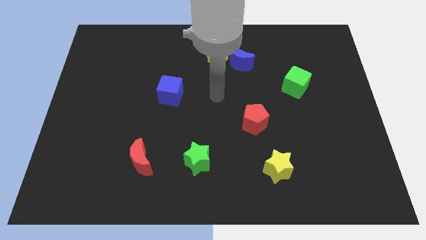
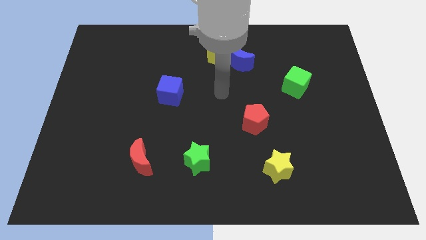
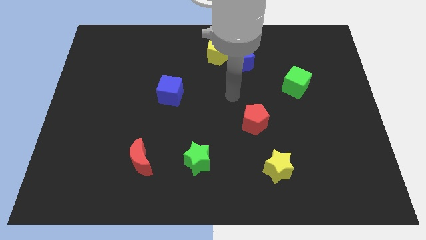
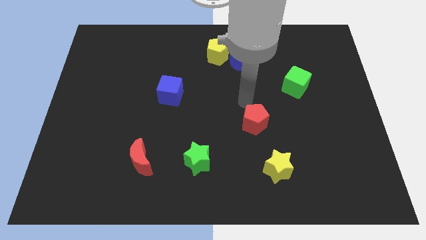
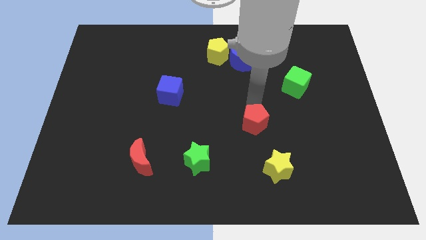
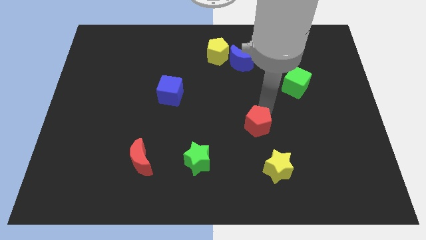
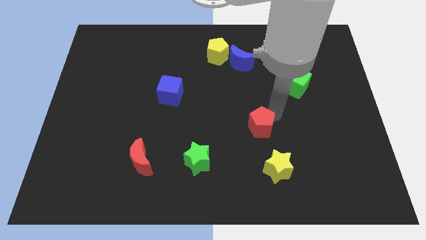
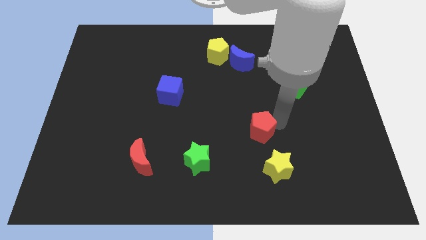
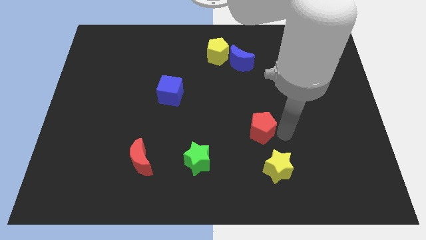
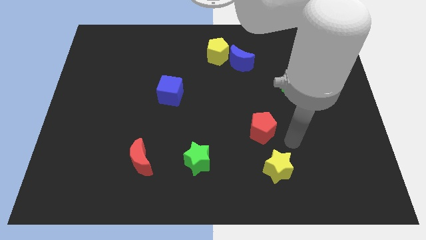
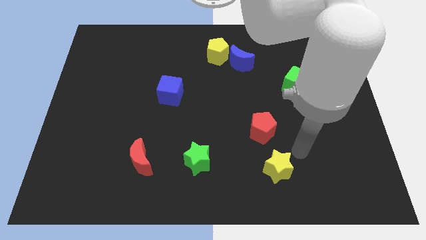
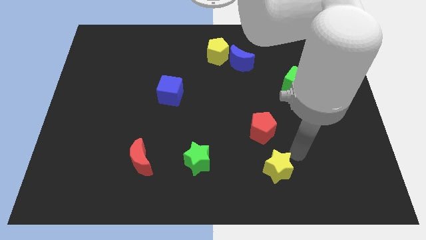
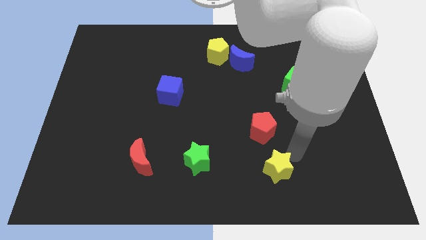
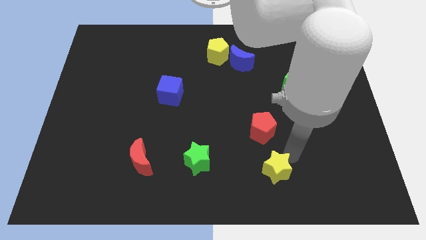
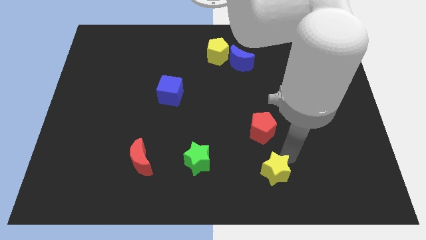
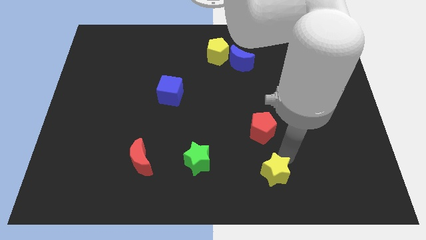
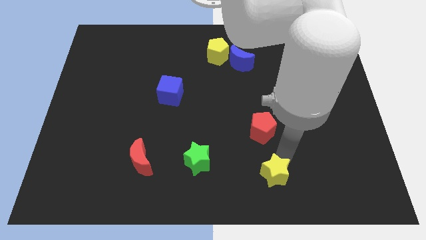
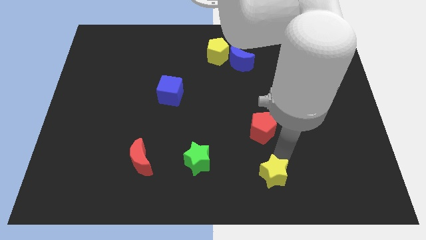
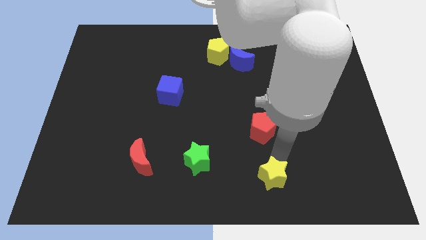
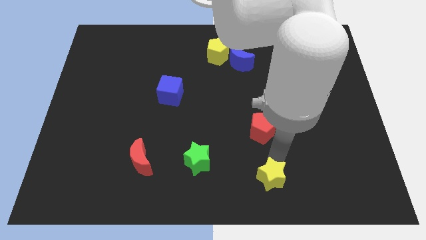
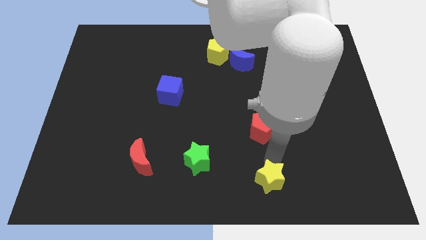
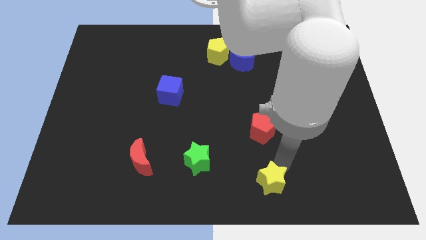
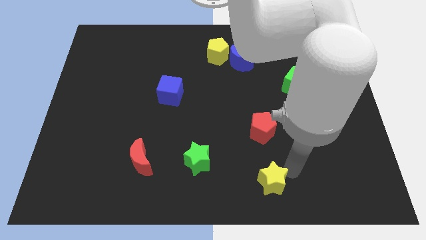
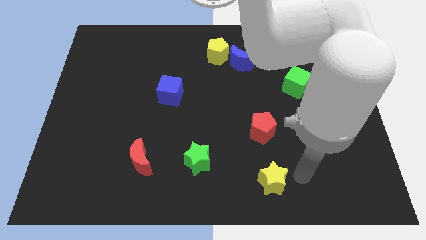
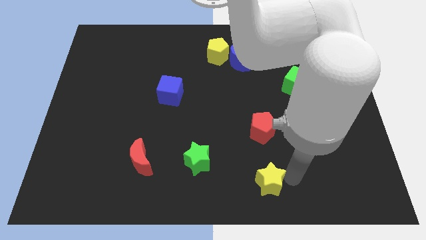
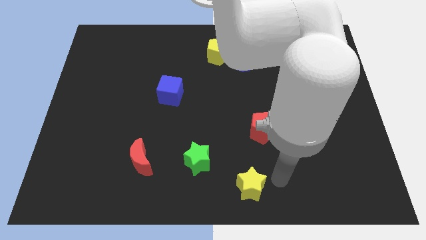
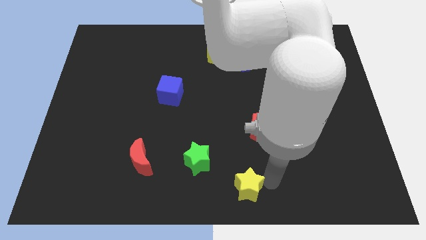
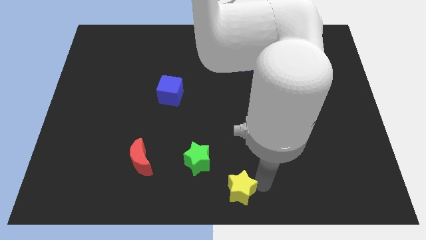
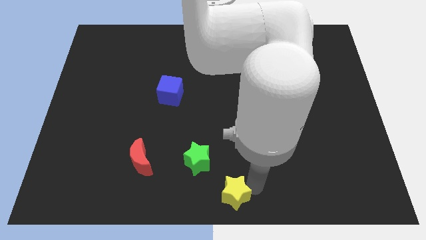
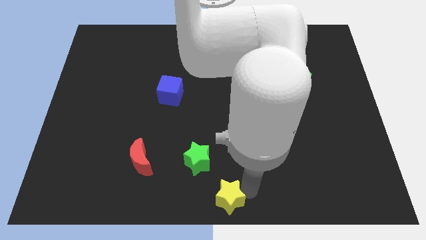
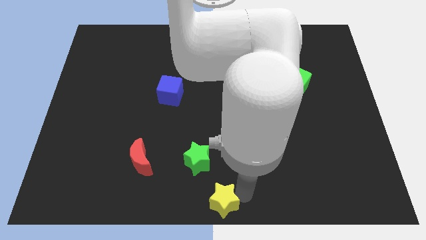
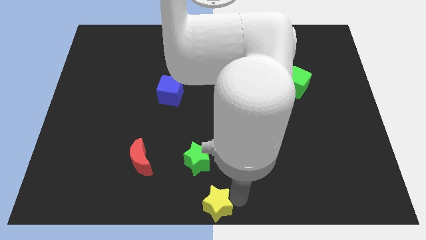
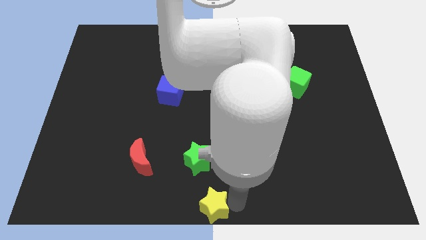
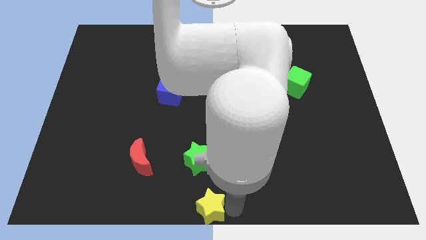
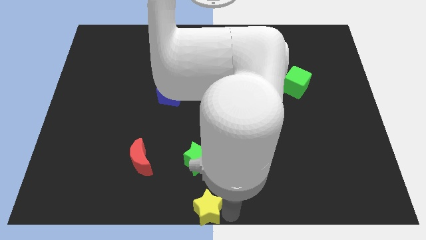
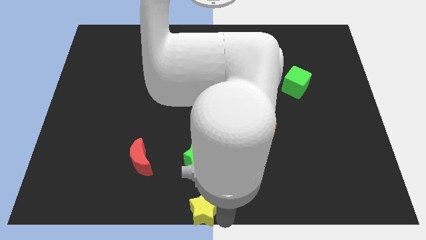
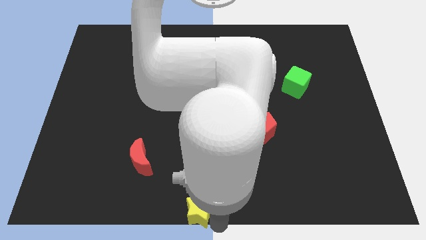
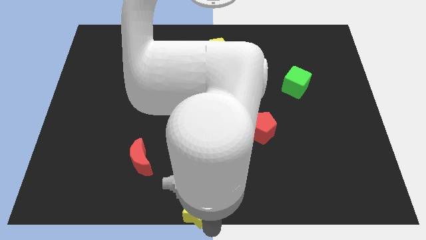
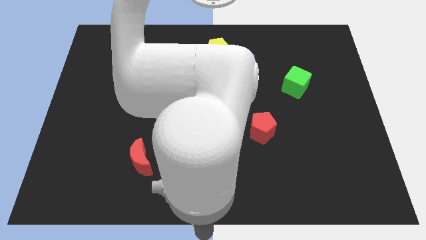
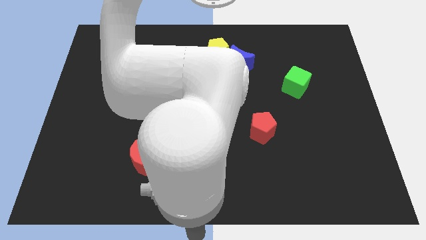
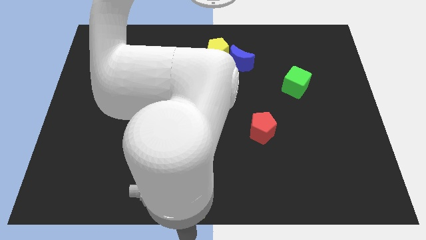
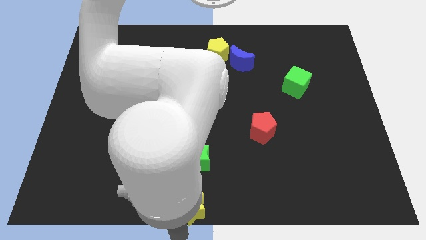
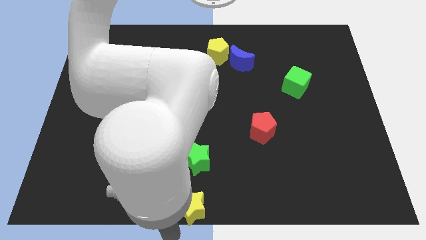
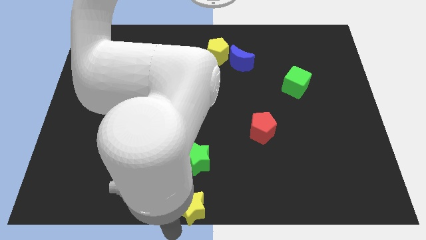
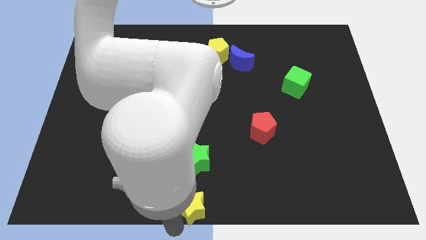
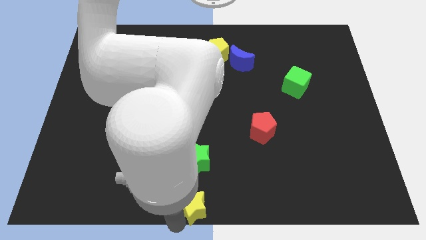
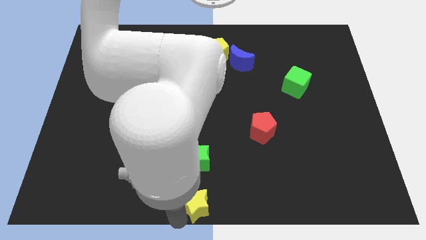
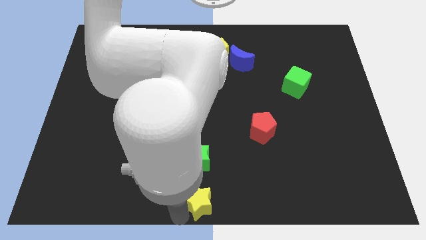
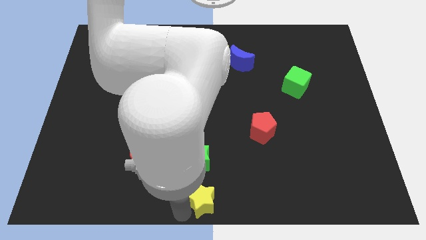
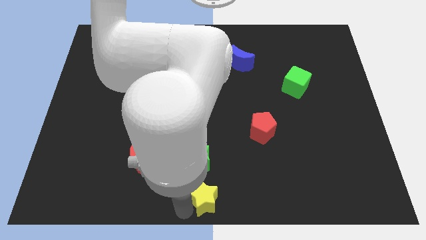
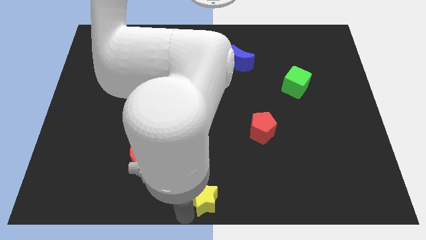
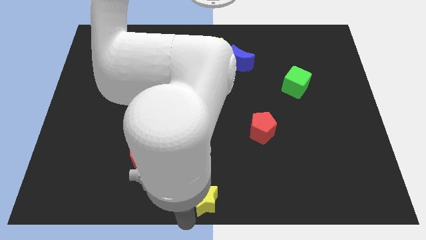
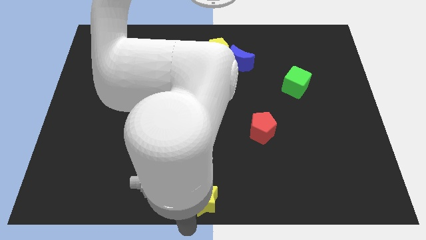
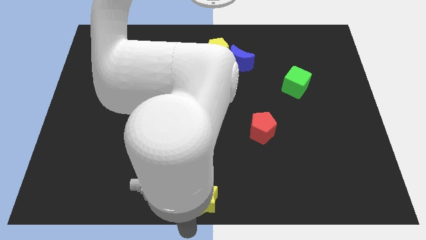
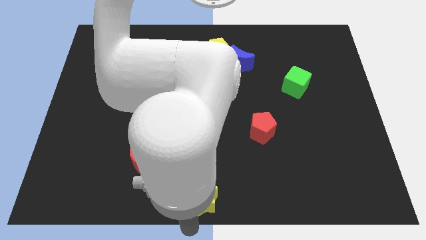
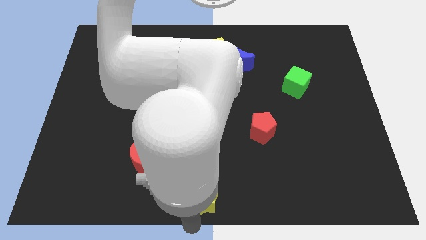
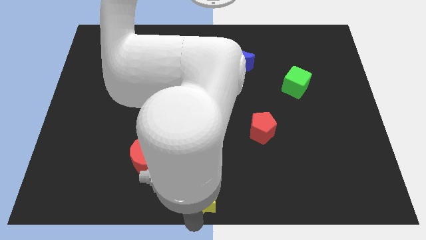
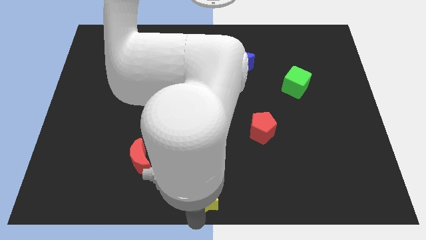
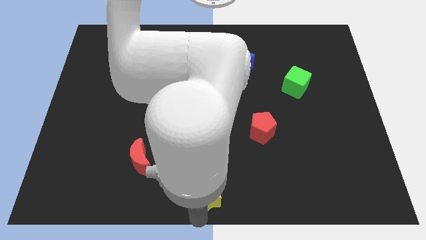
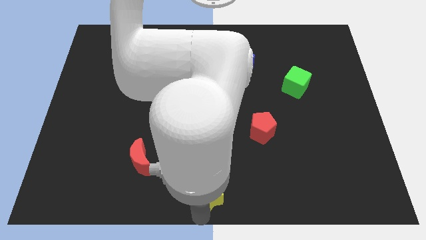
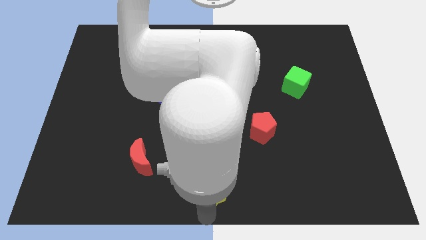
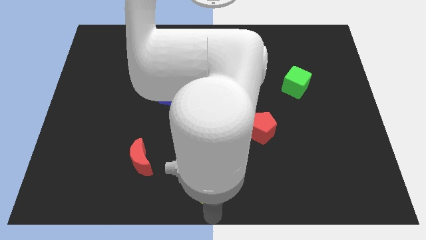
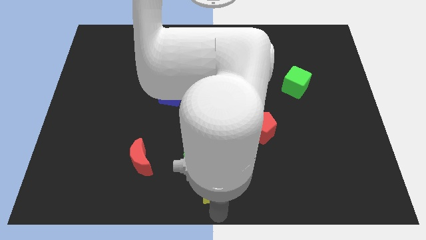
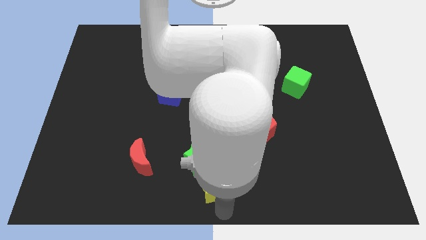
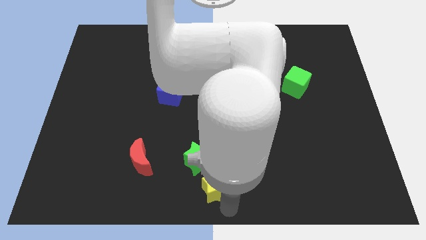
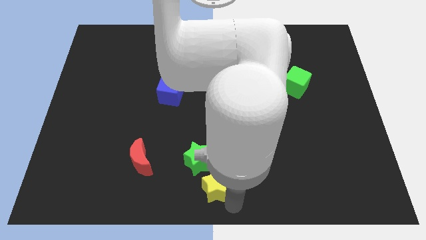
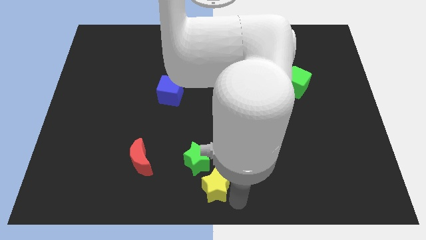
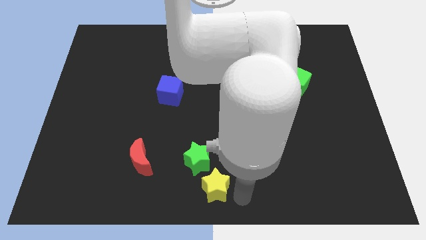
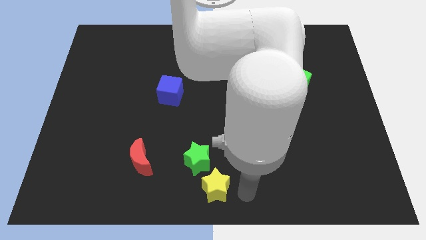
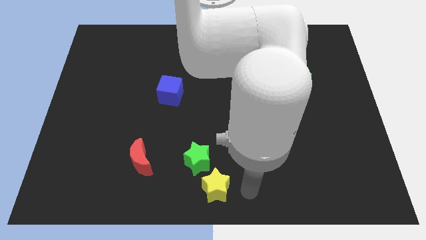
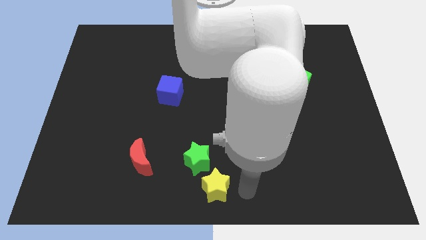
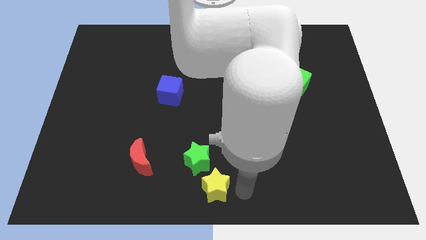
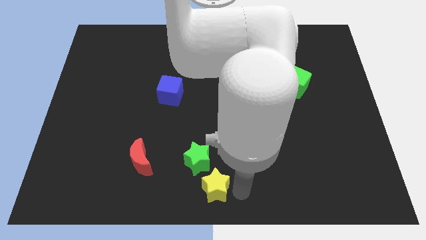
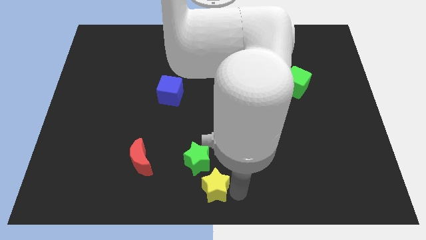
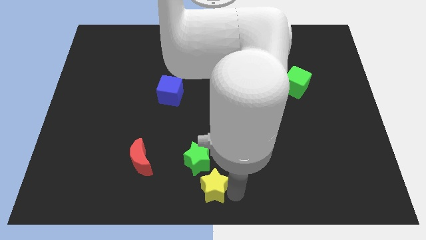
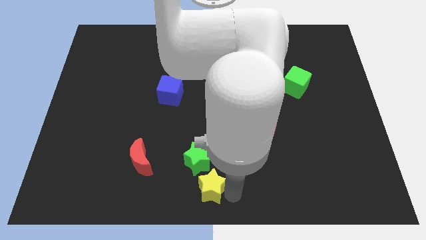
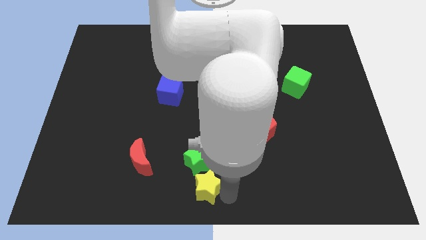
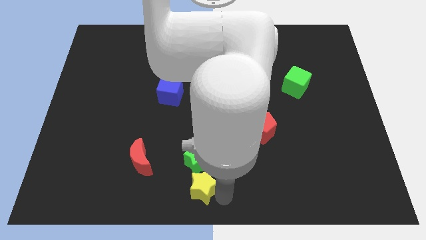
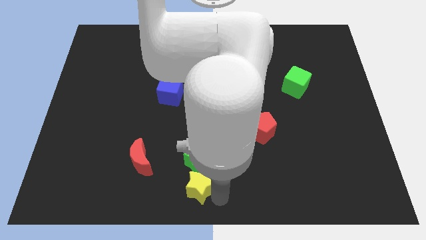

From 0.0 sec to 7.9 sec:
slide the yellow star to the bottom left of the green star
